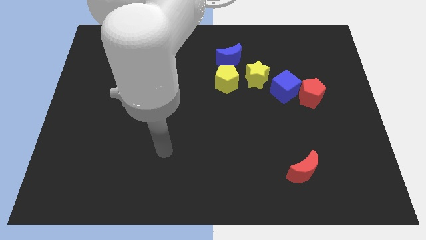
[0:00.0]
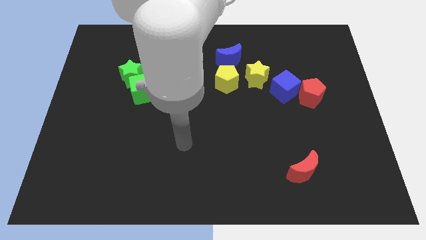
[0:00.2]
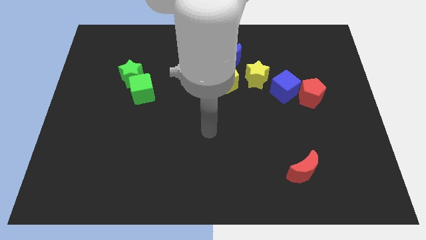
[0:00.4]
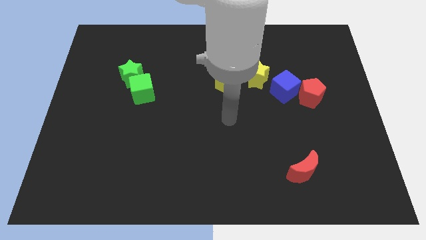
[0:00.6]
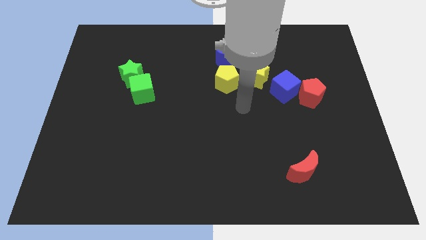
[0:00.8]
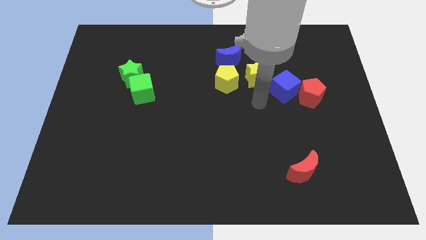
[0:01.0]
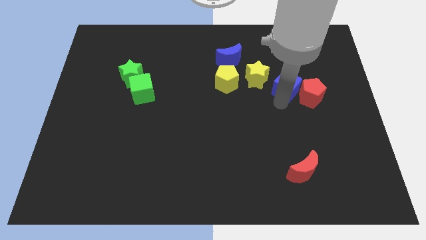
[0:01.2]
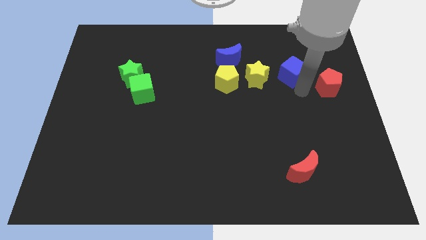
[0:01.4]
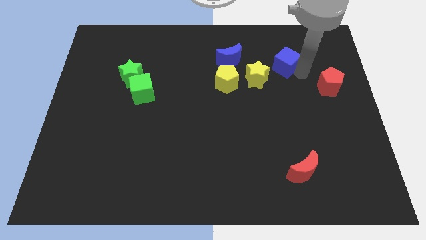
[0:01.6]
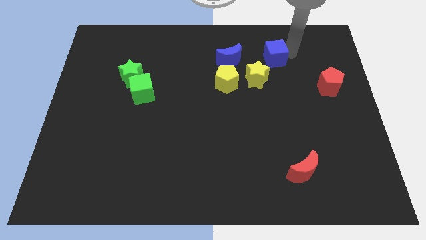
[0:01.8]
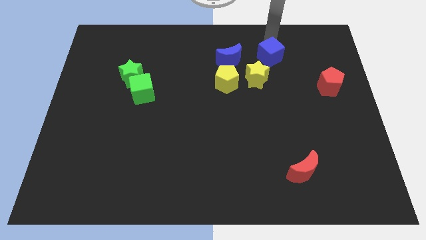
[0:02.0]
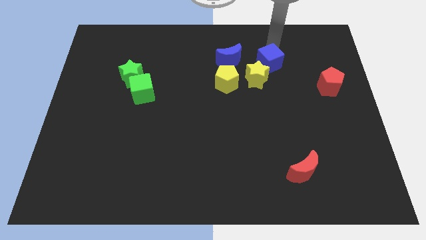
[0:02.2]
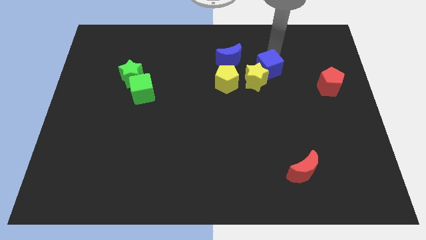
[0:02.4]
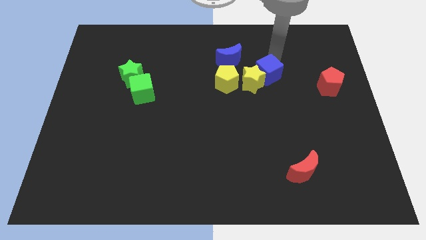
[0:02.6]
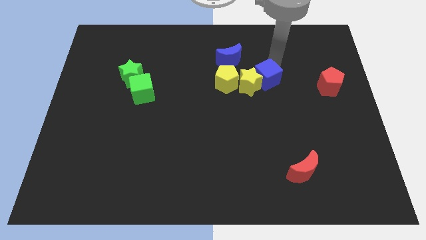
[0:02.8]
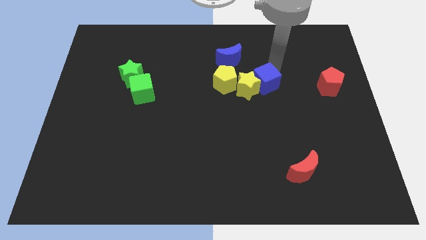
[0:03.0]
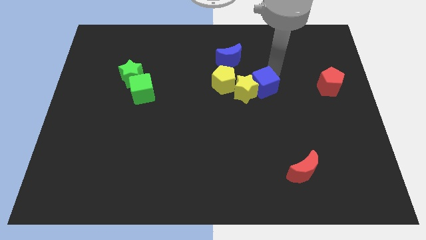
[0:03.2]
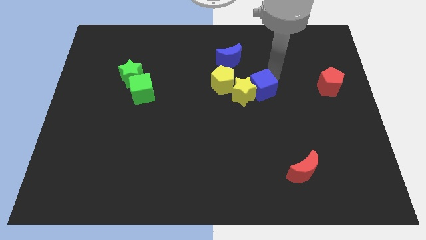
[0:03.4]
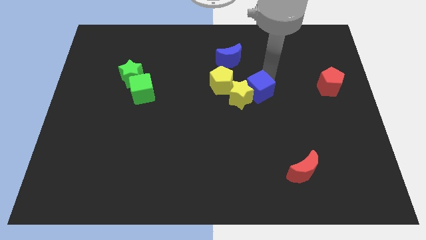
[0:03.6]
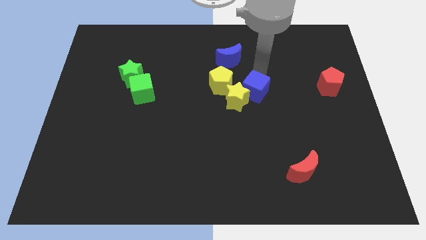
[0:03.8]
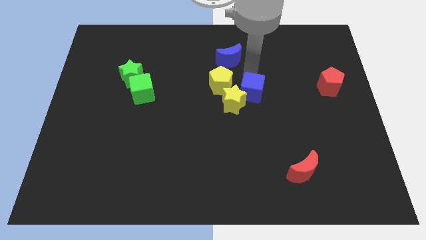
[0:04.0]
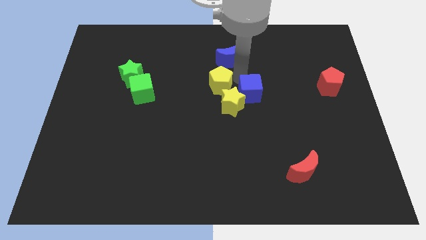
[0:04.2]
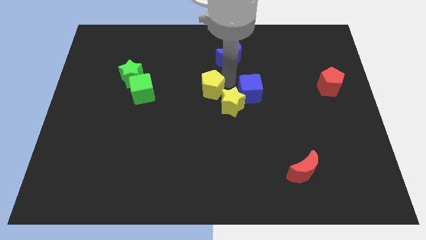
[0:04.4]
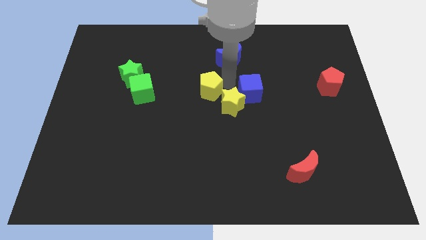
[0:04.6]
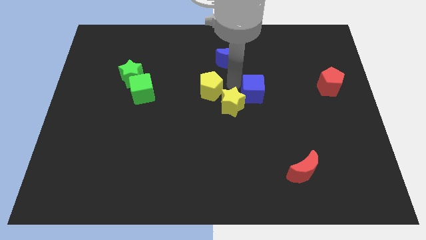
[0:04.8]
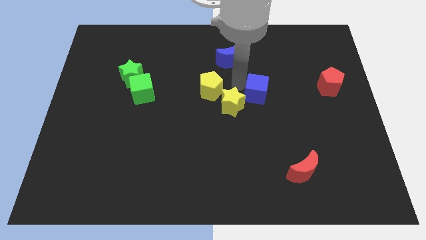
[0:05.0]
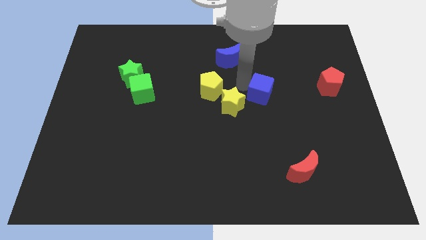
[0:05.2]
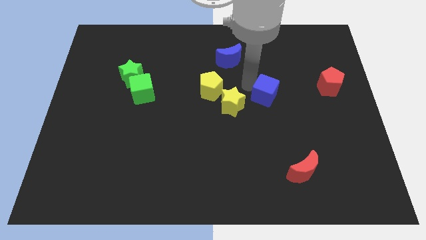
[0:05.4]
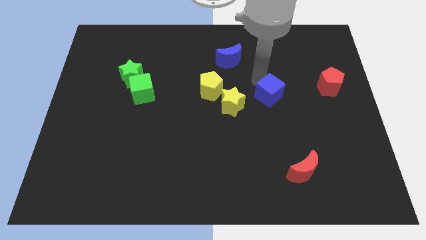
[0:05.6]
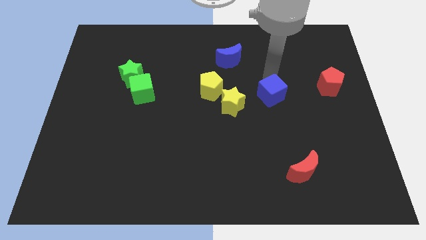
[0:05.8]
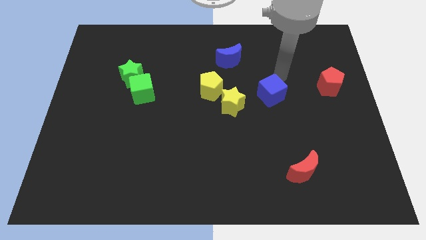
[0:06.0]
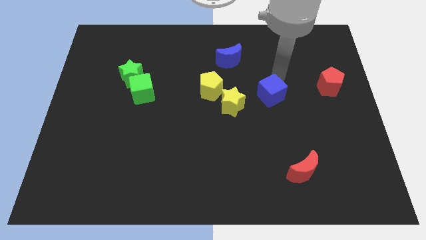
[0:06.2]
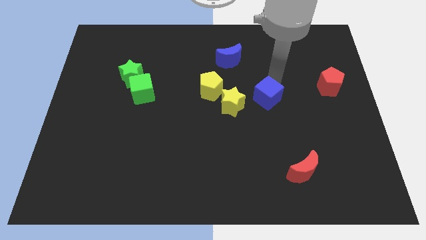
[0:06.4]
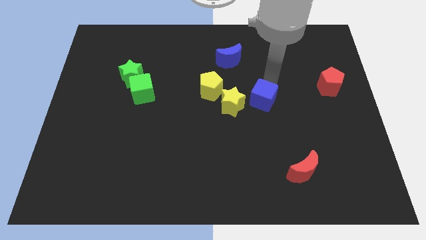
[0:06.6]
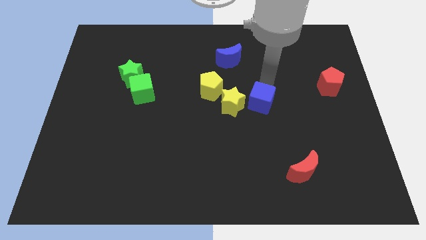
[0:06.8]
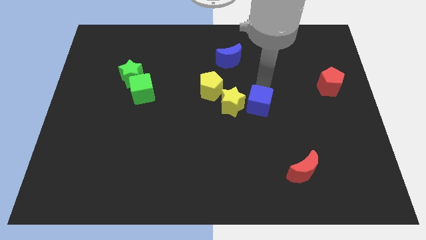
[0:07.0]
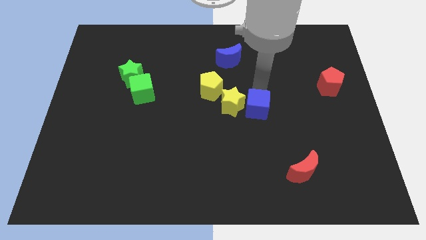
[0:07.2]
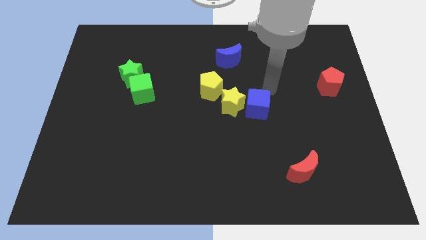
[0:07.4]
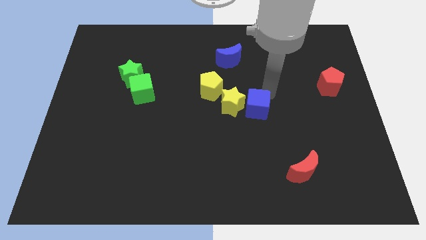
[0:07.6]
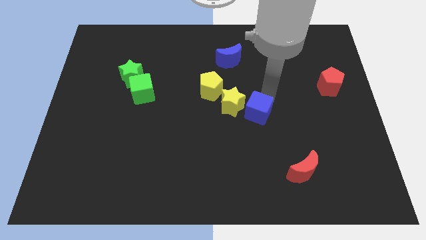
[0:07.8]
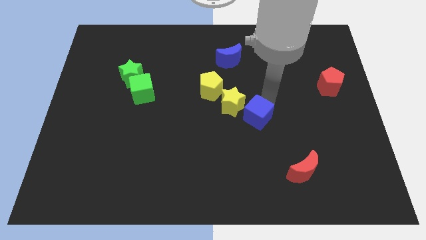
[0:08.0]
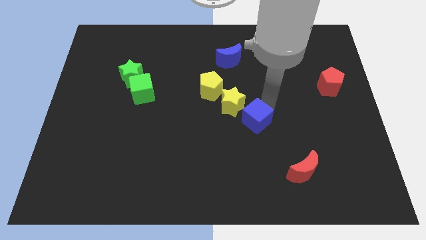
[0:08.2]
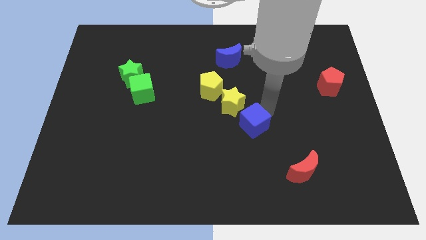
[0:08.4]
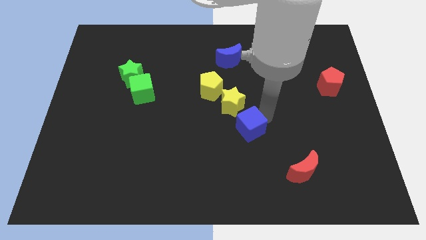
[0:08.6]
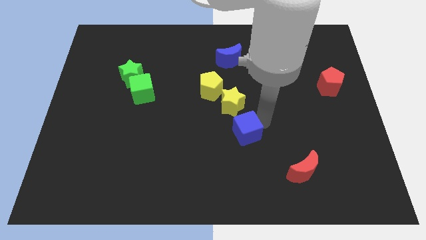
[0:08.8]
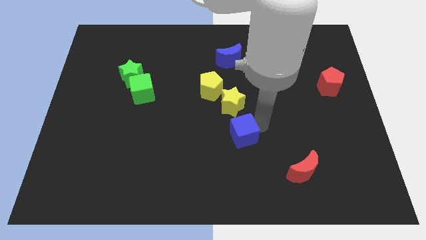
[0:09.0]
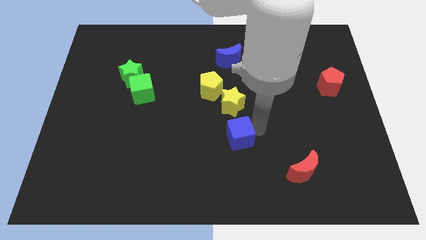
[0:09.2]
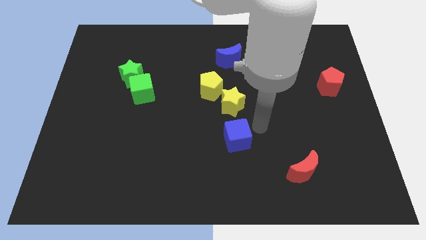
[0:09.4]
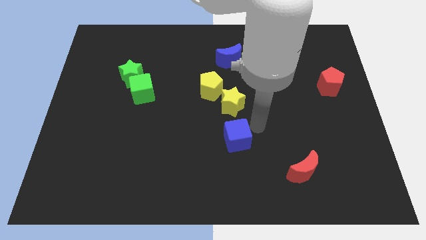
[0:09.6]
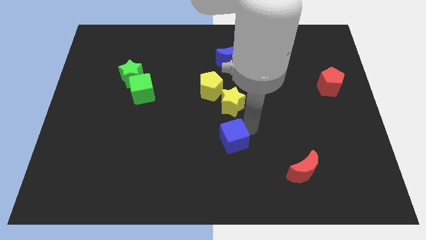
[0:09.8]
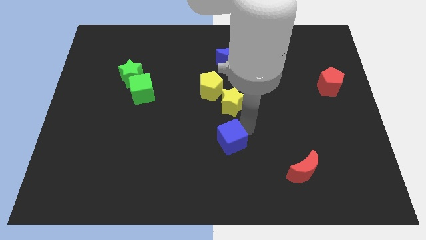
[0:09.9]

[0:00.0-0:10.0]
push the blue cube downwards and left diagonally

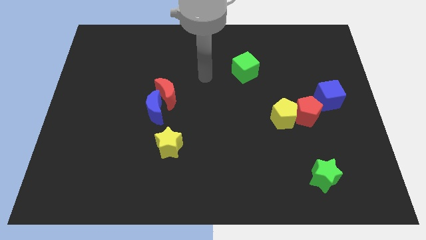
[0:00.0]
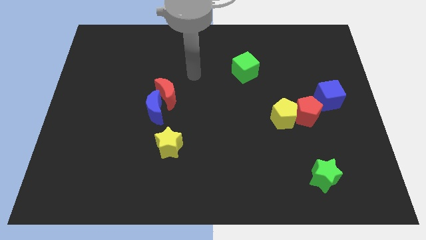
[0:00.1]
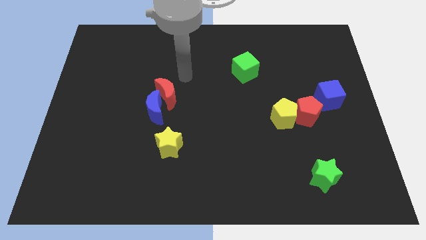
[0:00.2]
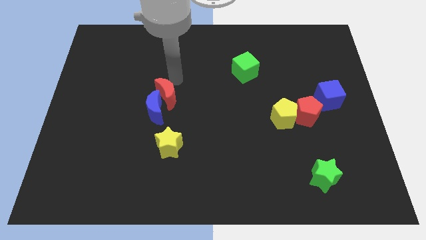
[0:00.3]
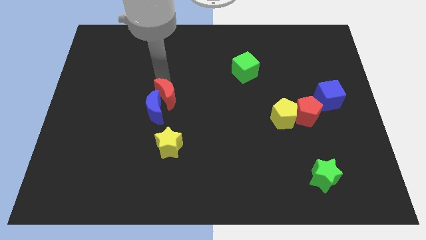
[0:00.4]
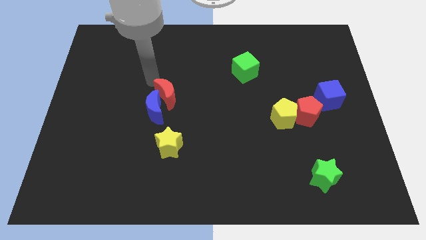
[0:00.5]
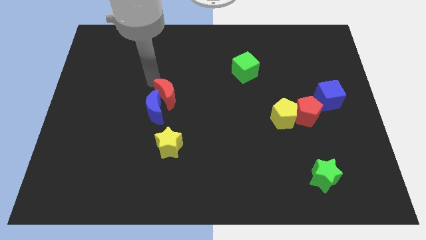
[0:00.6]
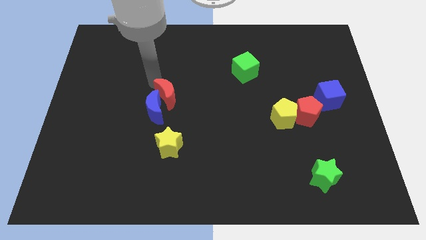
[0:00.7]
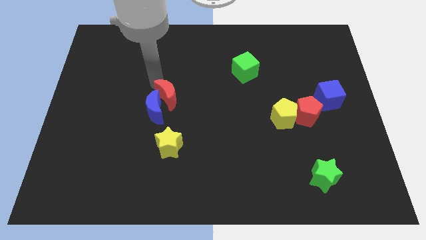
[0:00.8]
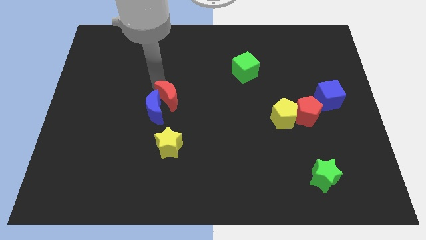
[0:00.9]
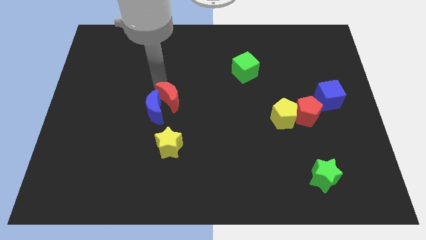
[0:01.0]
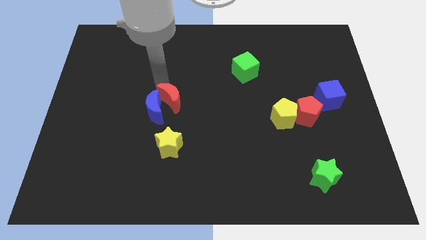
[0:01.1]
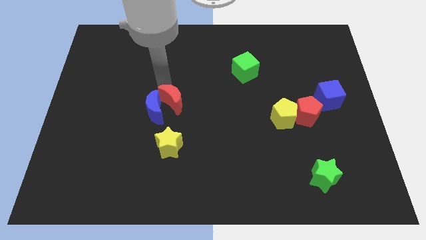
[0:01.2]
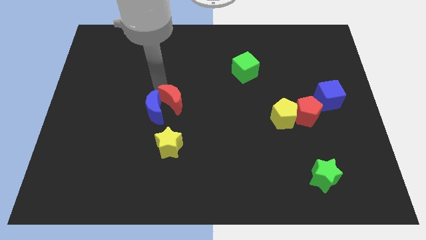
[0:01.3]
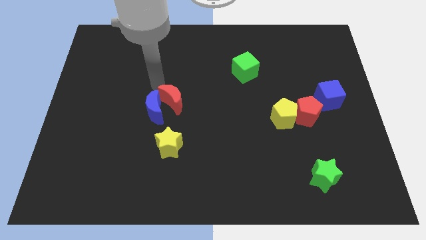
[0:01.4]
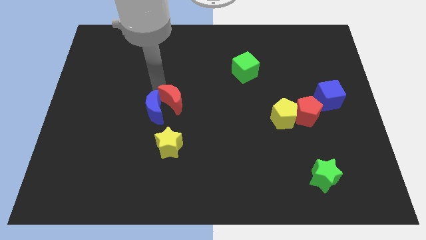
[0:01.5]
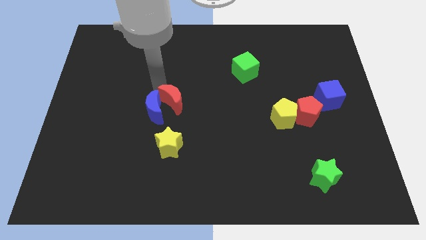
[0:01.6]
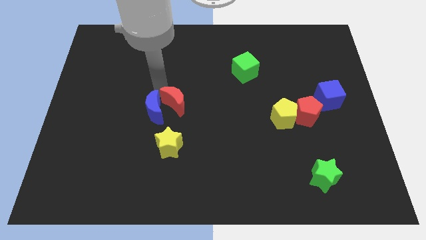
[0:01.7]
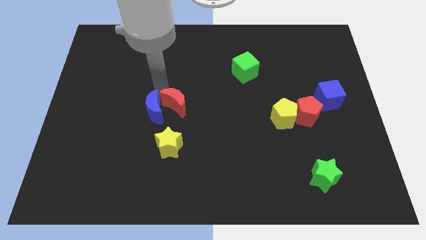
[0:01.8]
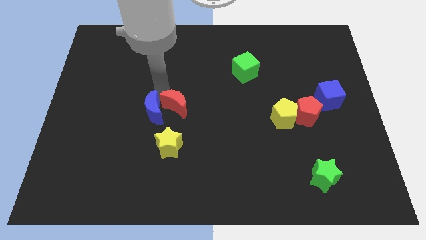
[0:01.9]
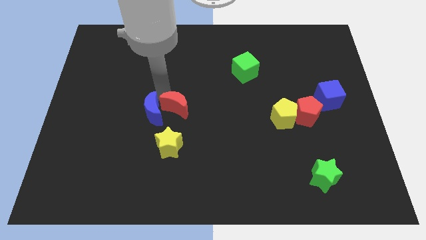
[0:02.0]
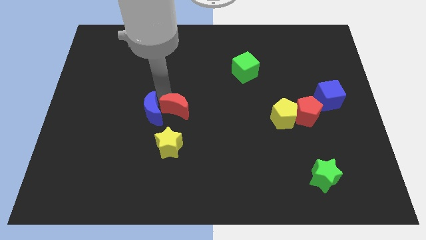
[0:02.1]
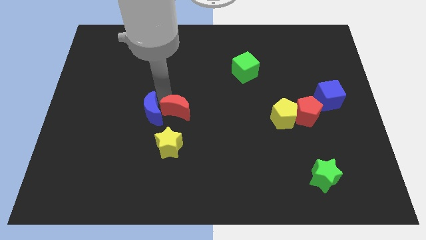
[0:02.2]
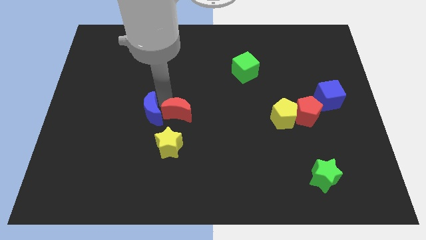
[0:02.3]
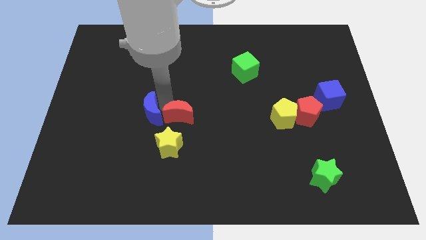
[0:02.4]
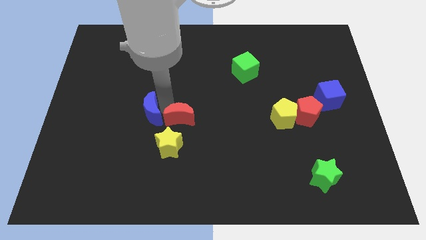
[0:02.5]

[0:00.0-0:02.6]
move the red moon a bit down and then to the right
